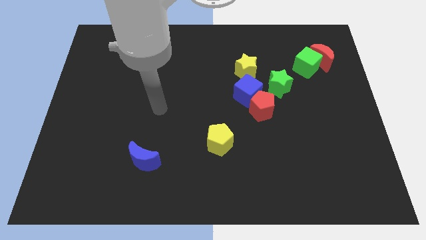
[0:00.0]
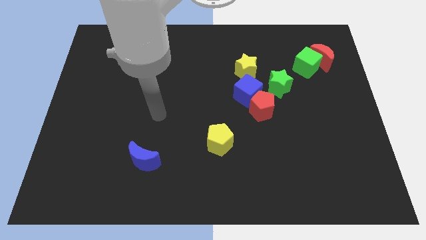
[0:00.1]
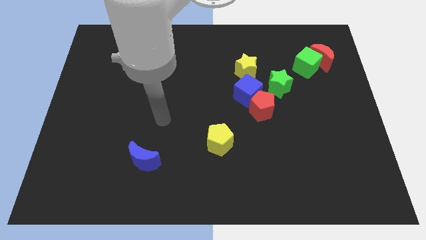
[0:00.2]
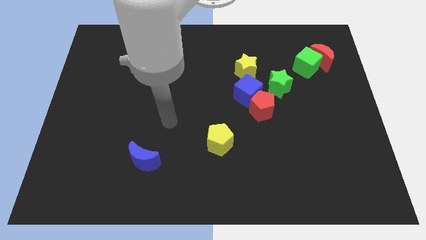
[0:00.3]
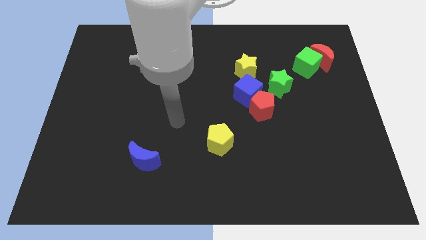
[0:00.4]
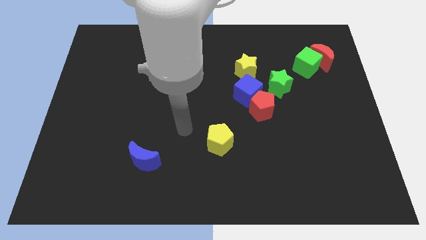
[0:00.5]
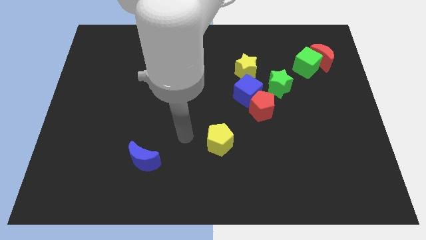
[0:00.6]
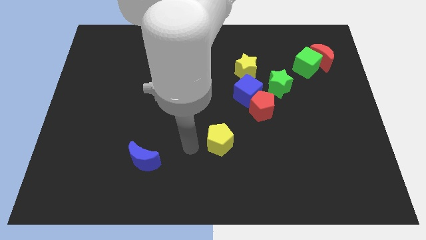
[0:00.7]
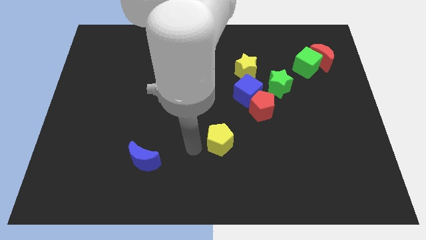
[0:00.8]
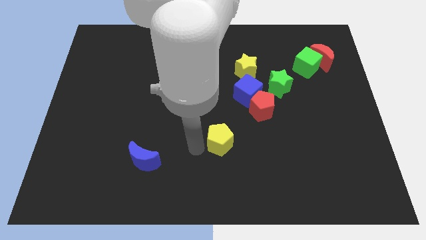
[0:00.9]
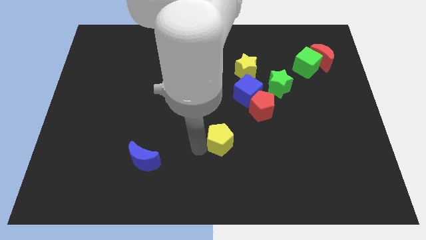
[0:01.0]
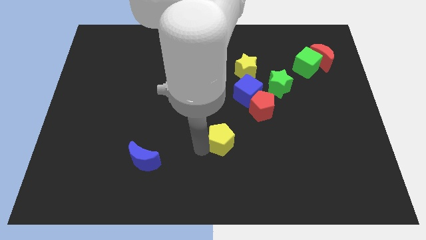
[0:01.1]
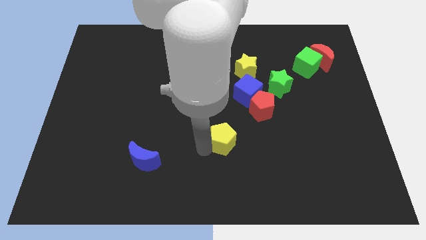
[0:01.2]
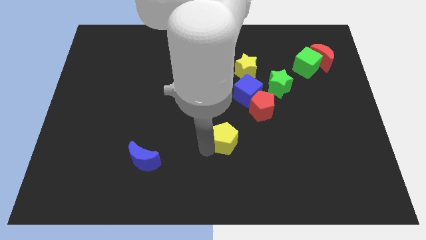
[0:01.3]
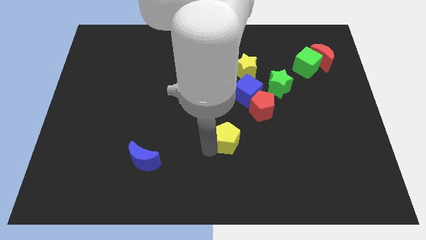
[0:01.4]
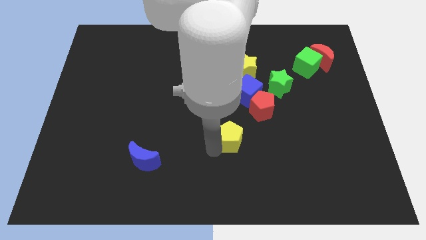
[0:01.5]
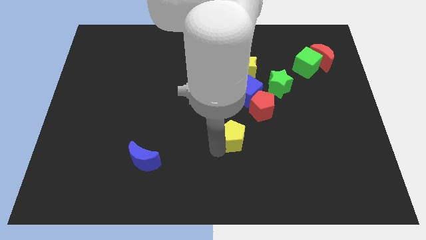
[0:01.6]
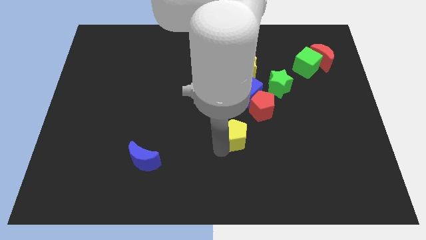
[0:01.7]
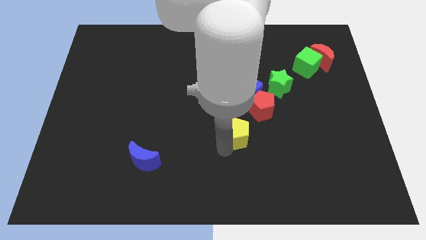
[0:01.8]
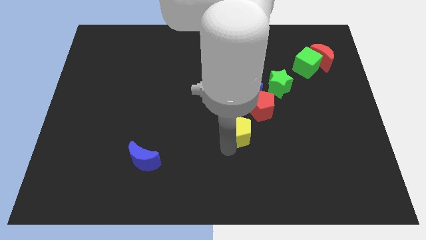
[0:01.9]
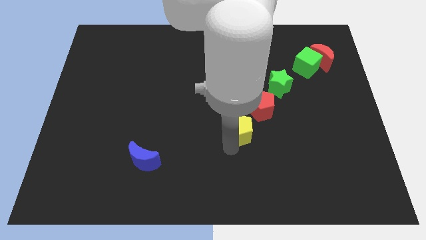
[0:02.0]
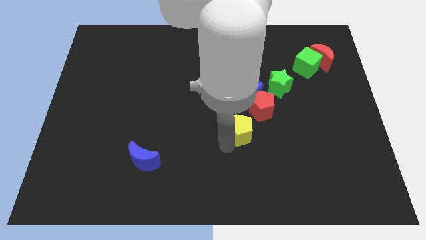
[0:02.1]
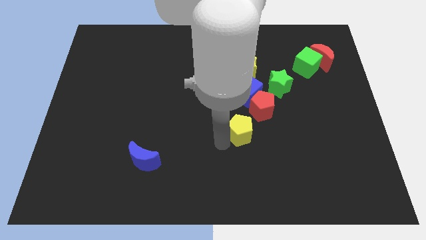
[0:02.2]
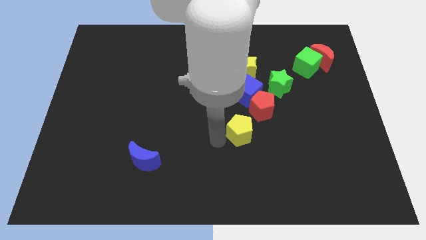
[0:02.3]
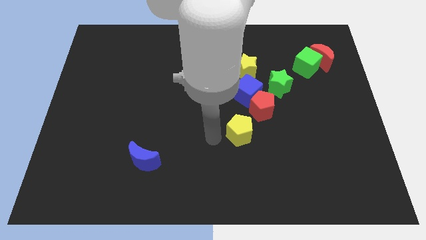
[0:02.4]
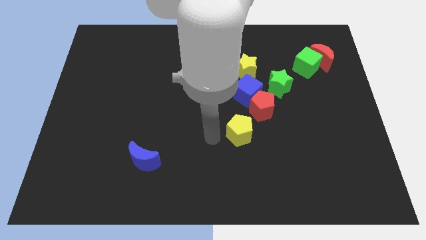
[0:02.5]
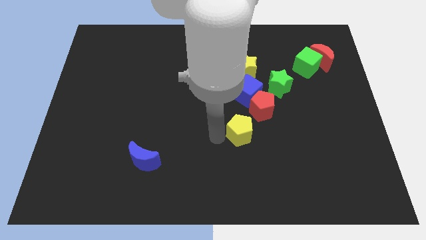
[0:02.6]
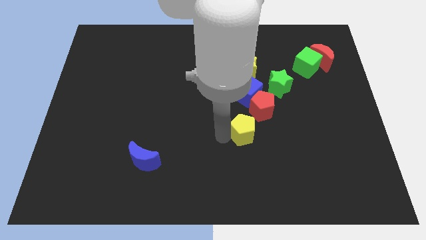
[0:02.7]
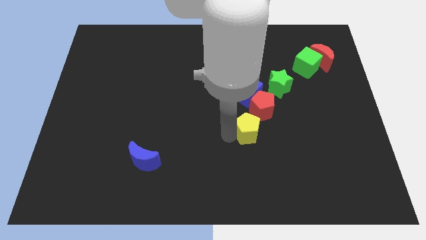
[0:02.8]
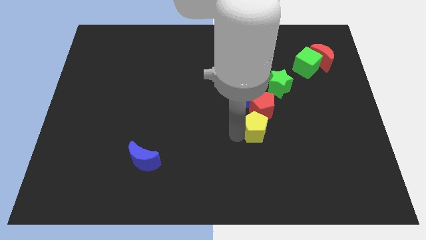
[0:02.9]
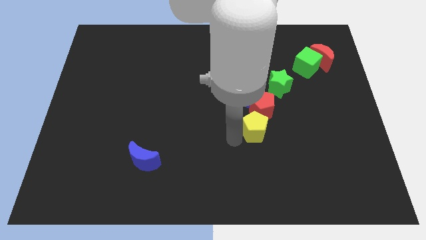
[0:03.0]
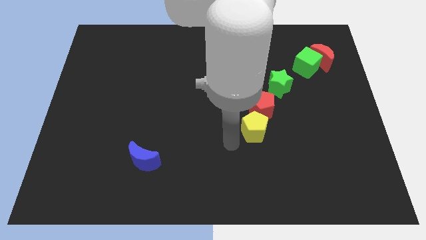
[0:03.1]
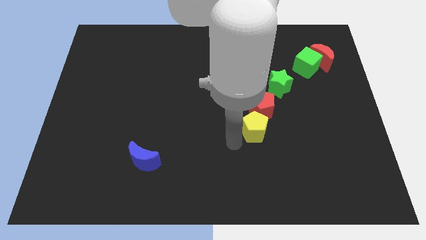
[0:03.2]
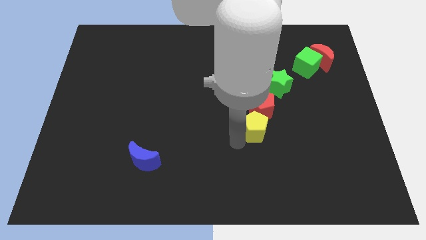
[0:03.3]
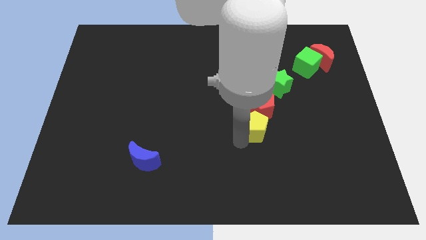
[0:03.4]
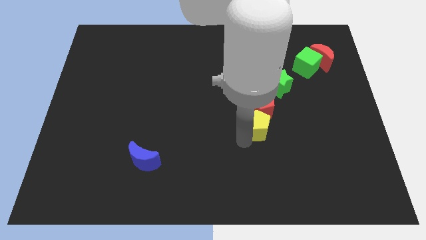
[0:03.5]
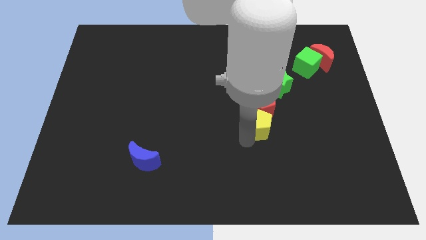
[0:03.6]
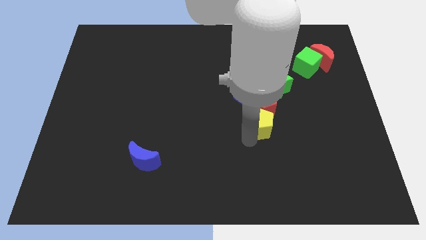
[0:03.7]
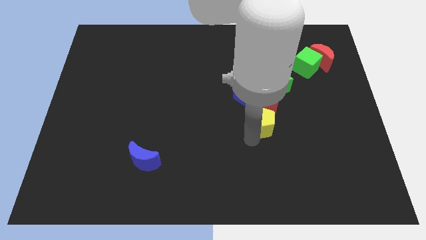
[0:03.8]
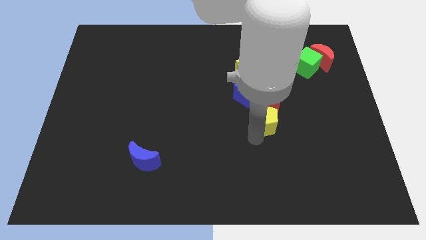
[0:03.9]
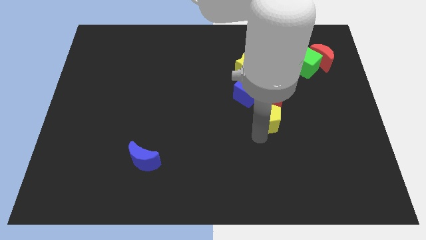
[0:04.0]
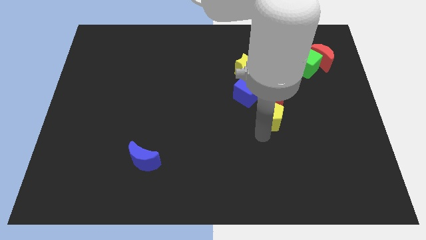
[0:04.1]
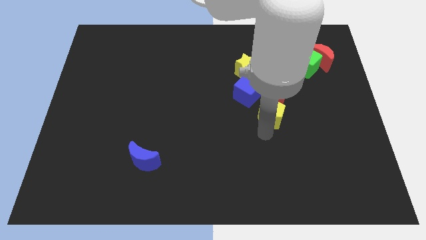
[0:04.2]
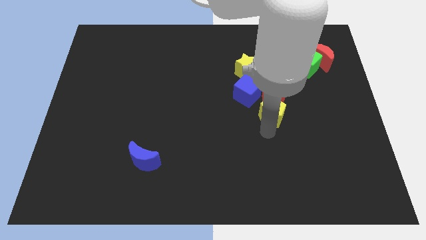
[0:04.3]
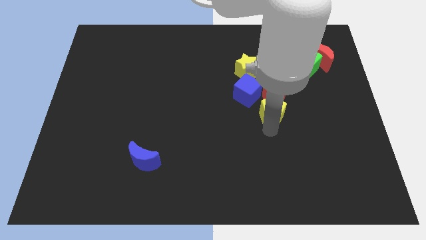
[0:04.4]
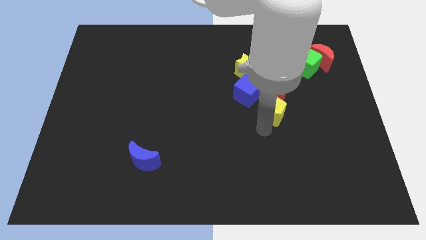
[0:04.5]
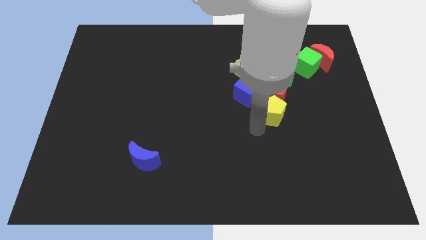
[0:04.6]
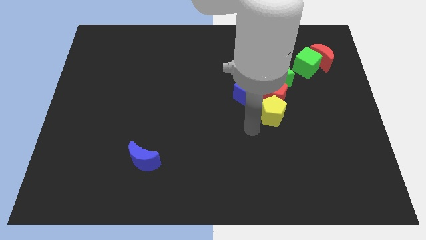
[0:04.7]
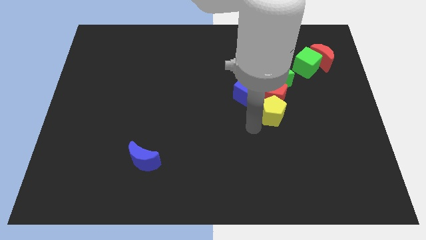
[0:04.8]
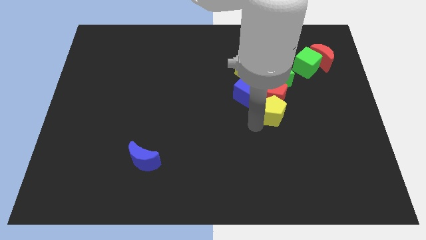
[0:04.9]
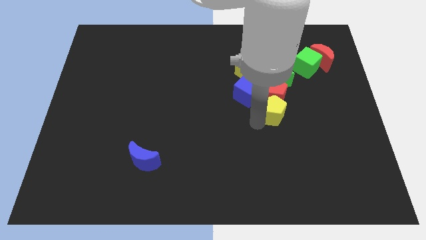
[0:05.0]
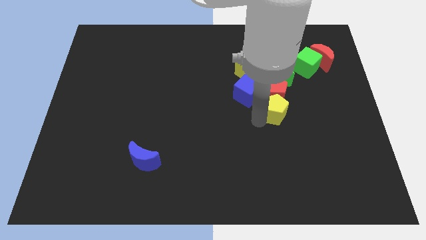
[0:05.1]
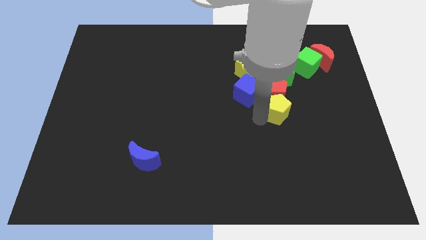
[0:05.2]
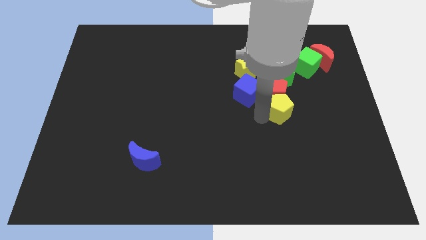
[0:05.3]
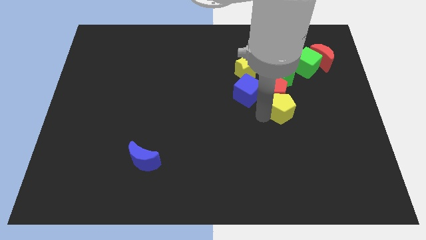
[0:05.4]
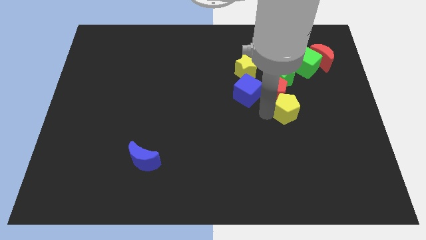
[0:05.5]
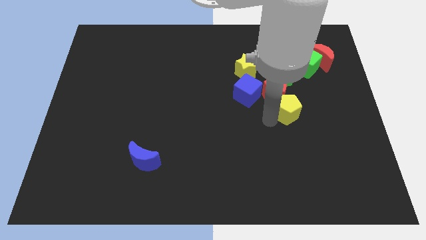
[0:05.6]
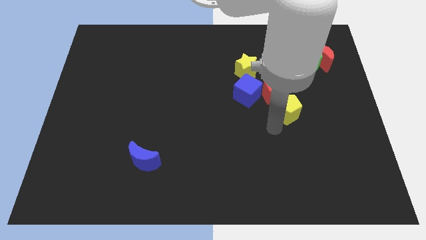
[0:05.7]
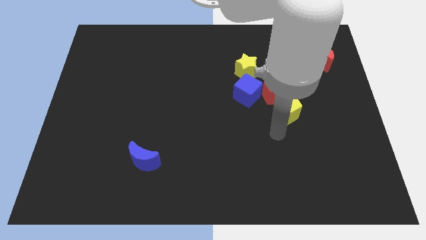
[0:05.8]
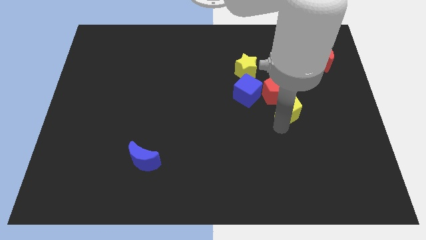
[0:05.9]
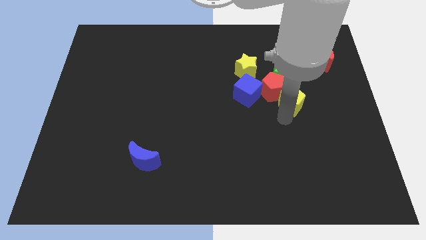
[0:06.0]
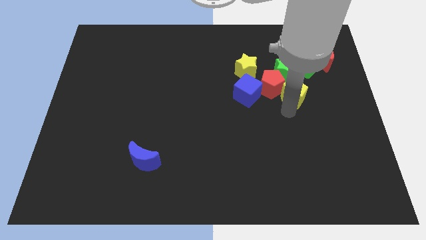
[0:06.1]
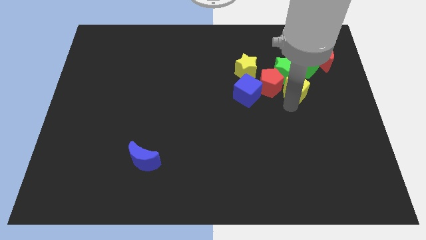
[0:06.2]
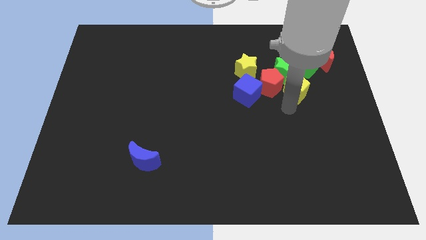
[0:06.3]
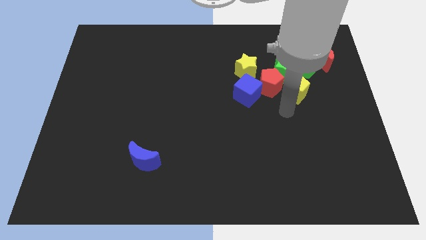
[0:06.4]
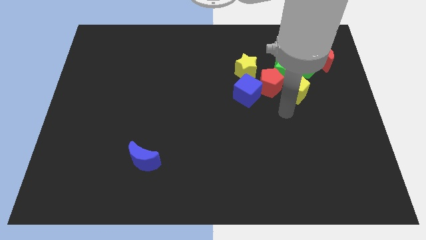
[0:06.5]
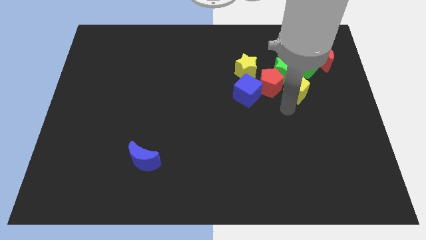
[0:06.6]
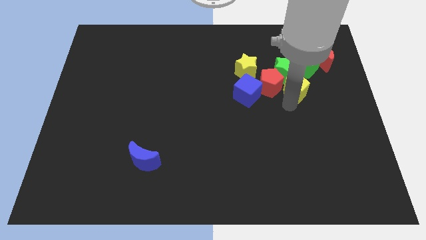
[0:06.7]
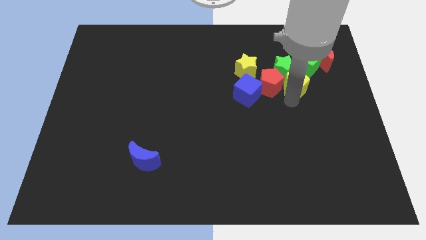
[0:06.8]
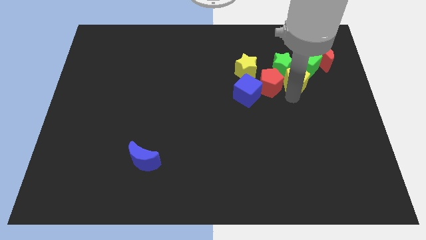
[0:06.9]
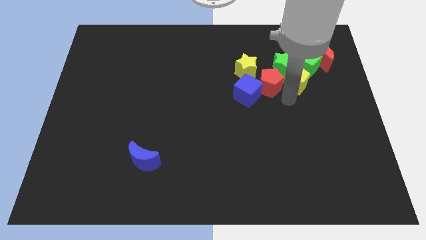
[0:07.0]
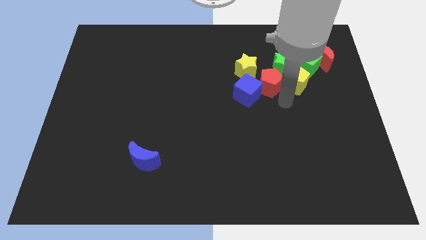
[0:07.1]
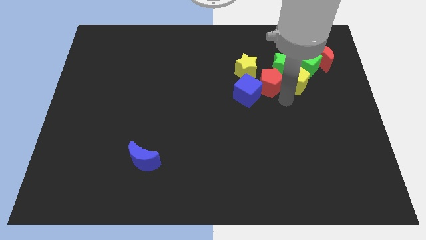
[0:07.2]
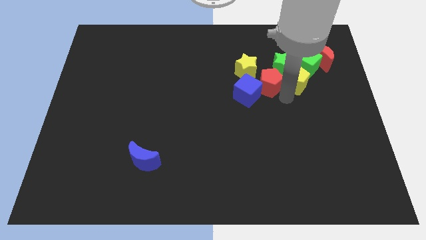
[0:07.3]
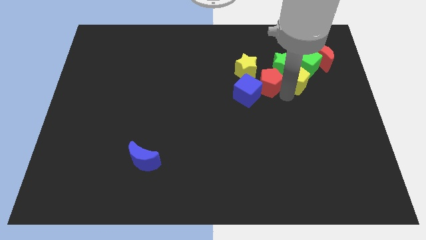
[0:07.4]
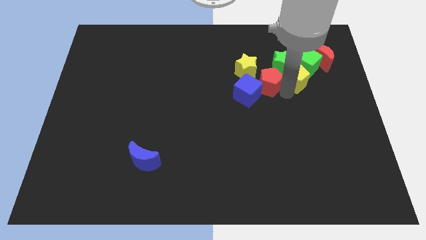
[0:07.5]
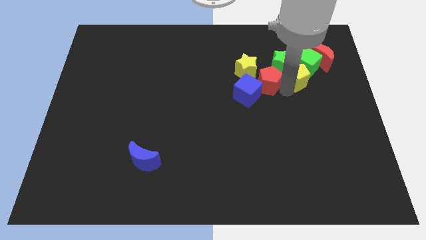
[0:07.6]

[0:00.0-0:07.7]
put the yellow pentagon towards the green cube
